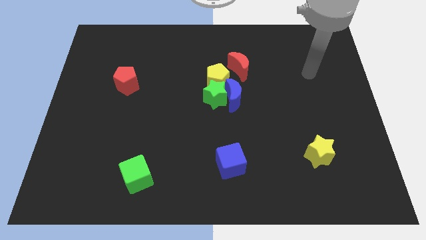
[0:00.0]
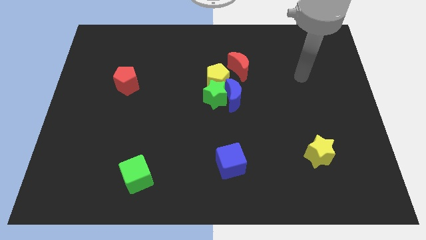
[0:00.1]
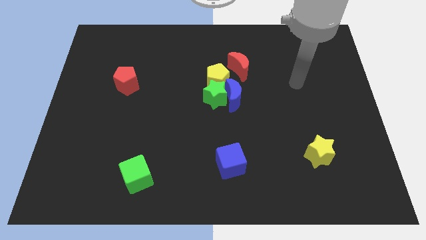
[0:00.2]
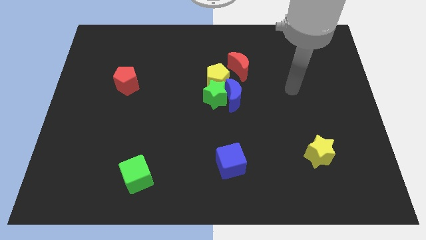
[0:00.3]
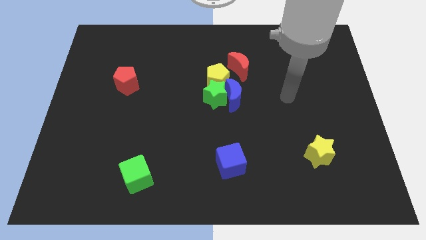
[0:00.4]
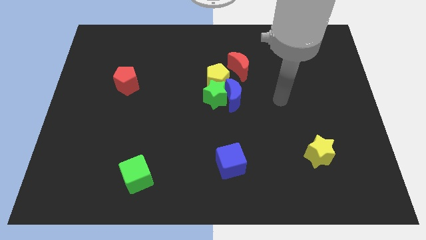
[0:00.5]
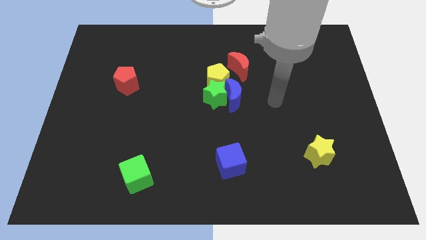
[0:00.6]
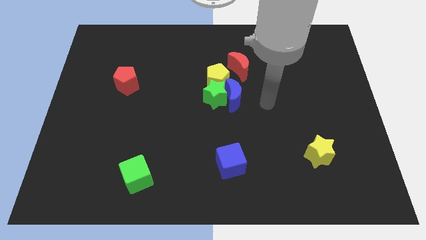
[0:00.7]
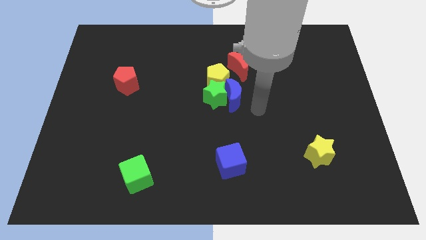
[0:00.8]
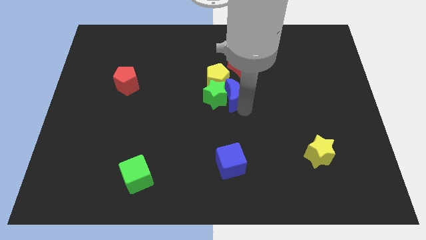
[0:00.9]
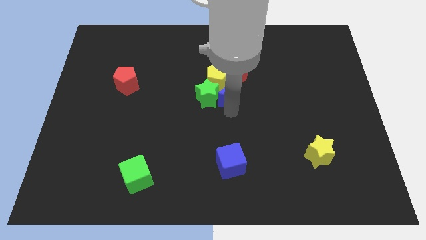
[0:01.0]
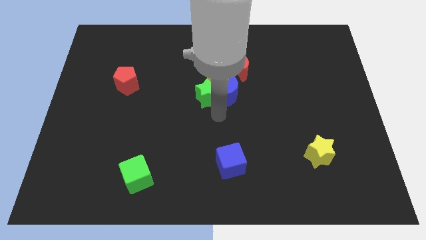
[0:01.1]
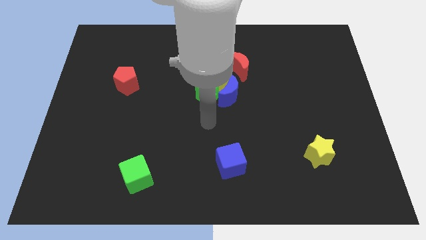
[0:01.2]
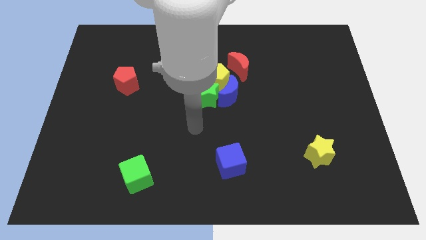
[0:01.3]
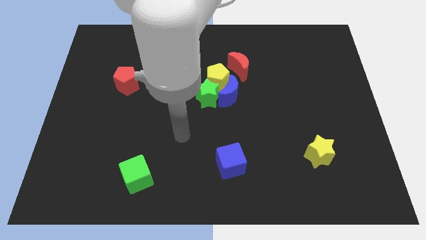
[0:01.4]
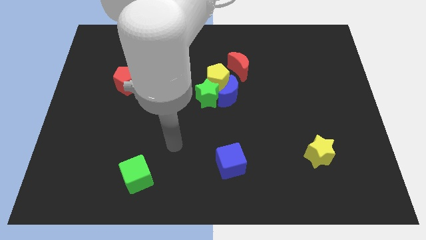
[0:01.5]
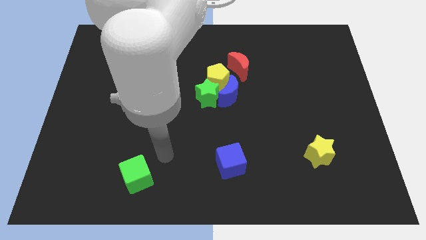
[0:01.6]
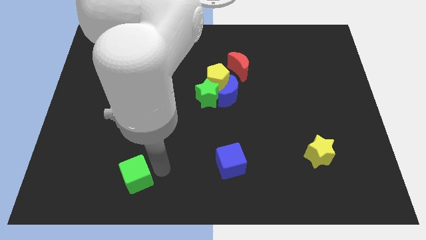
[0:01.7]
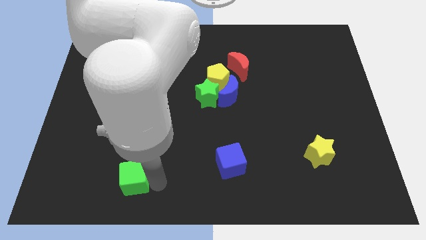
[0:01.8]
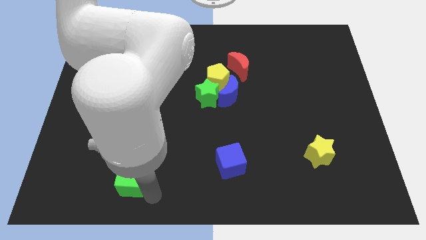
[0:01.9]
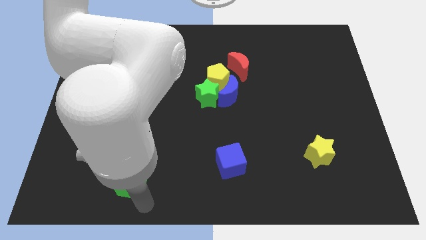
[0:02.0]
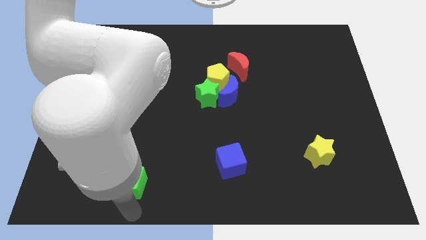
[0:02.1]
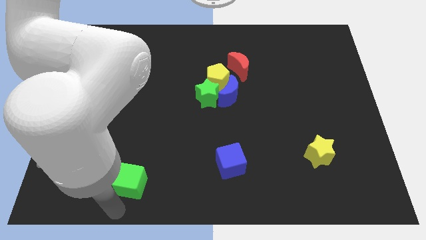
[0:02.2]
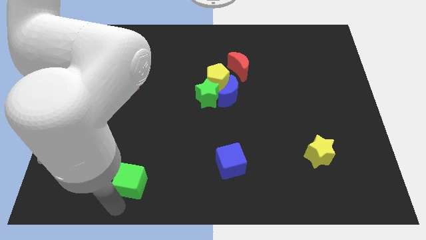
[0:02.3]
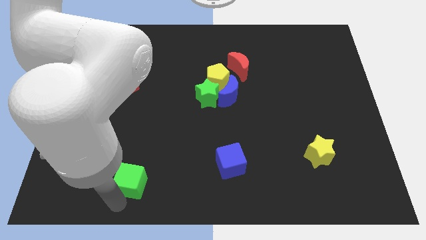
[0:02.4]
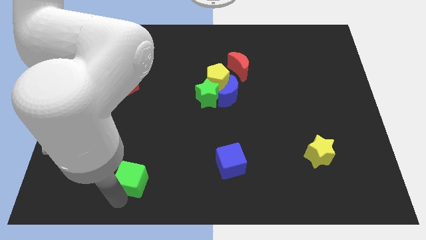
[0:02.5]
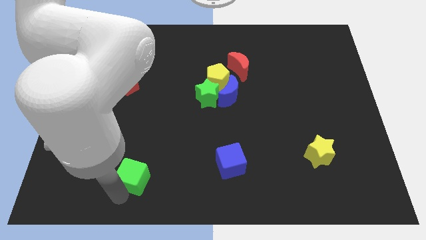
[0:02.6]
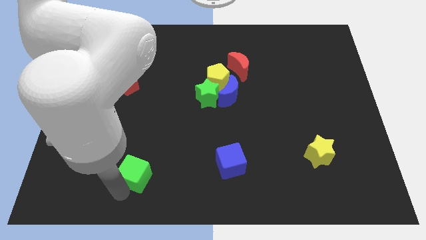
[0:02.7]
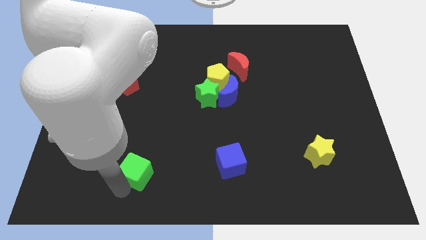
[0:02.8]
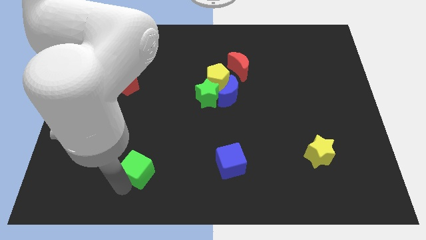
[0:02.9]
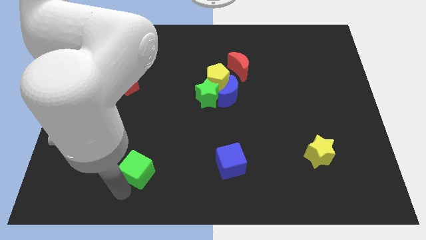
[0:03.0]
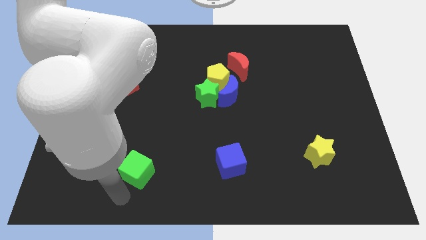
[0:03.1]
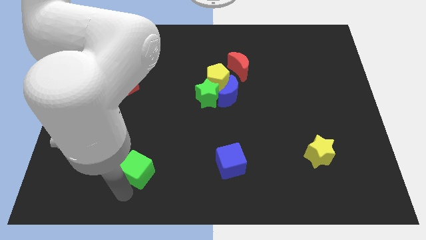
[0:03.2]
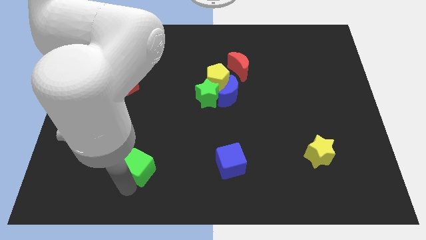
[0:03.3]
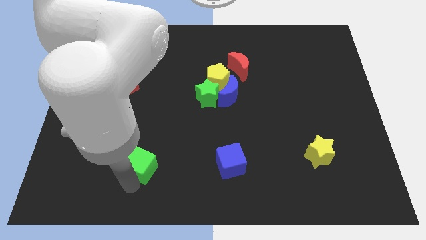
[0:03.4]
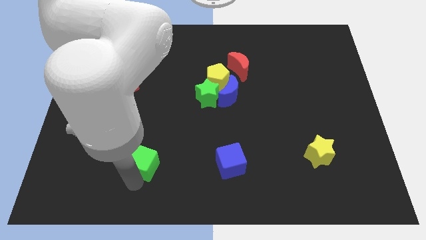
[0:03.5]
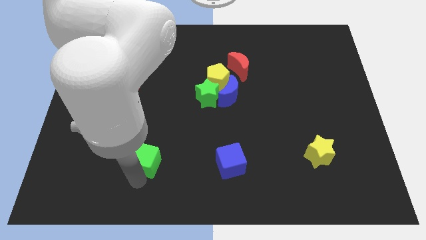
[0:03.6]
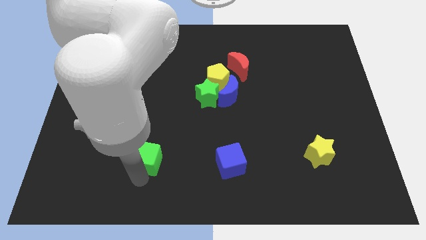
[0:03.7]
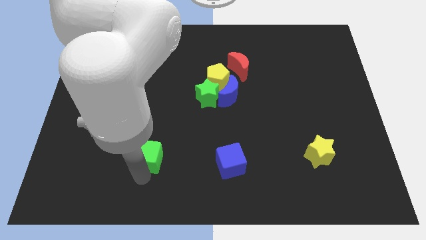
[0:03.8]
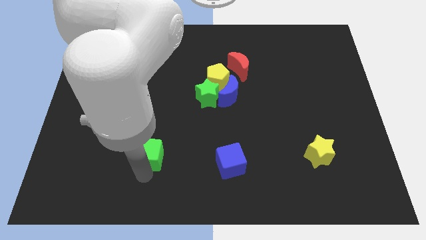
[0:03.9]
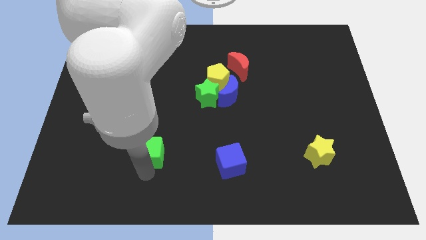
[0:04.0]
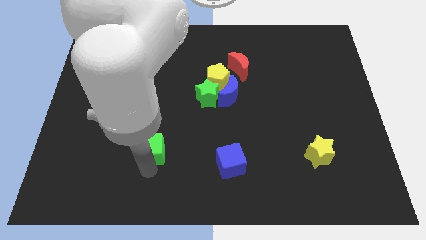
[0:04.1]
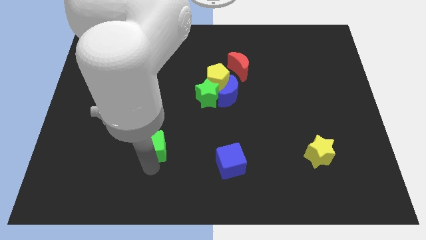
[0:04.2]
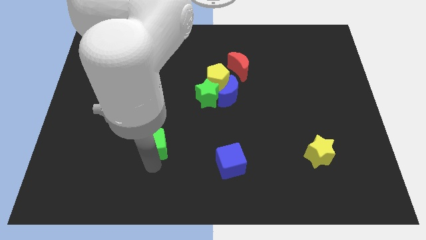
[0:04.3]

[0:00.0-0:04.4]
slightly move the green cube up

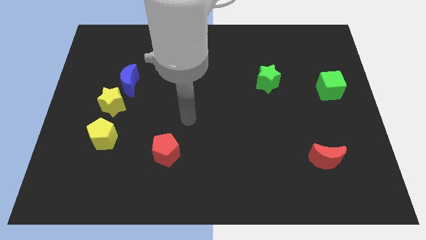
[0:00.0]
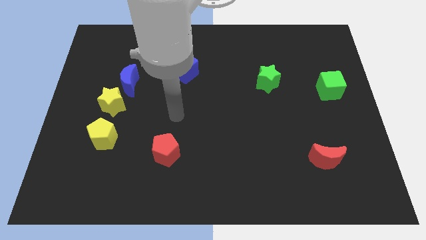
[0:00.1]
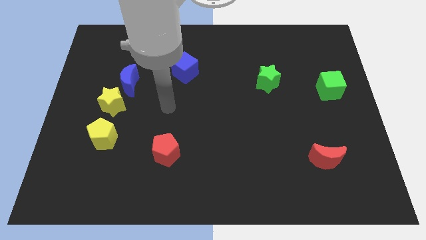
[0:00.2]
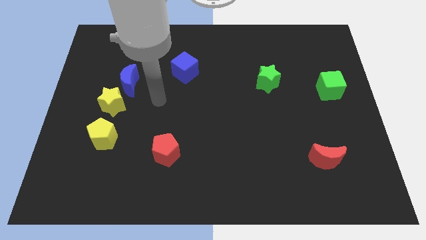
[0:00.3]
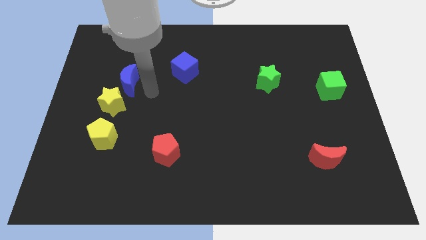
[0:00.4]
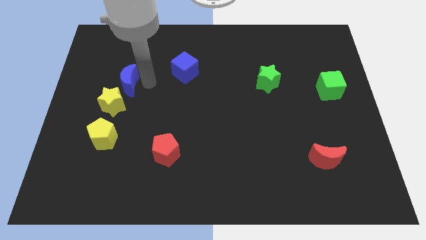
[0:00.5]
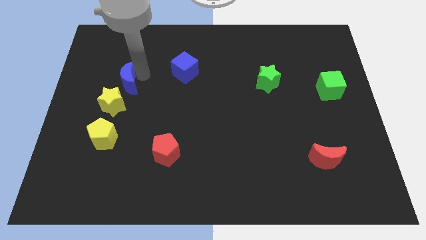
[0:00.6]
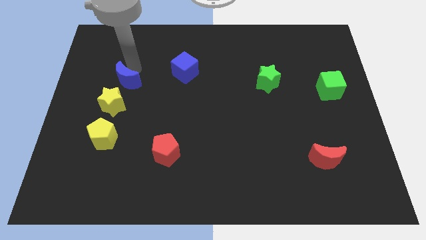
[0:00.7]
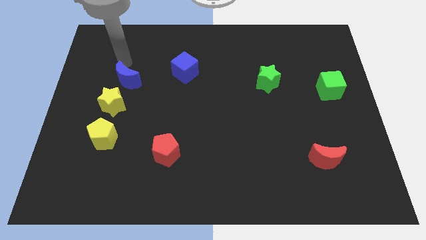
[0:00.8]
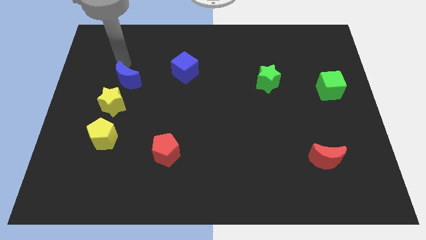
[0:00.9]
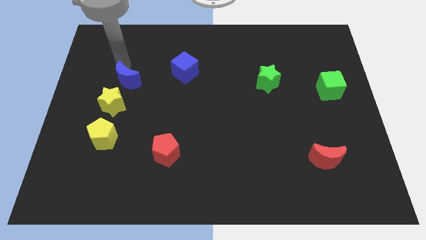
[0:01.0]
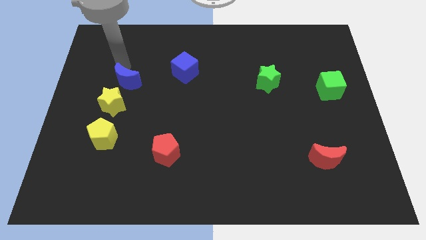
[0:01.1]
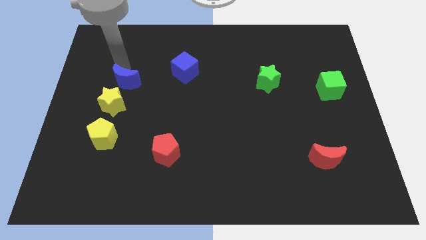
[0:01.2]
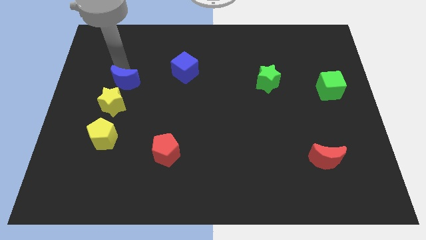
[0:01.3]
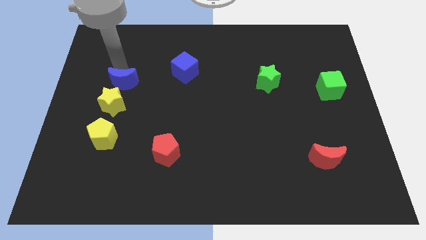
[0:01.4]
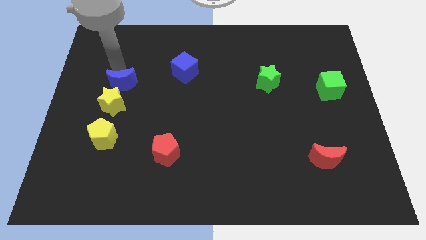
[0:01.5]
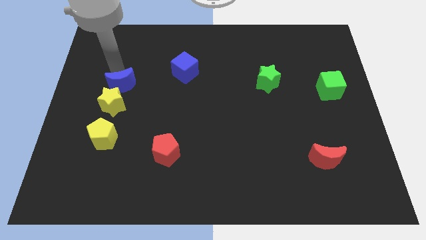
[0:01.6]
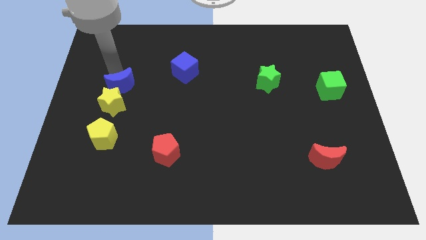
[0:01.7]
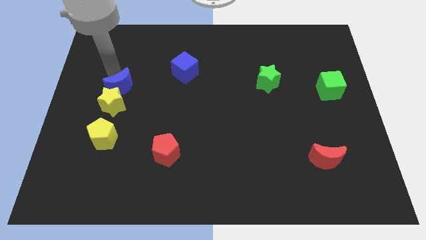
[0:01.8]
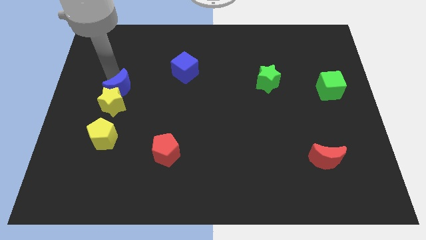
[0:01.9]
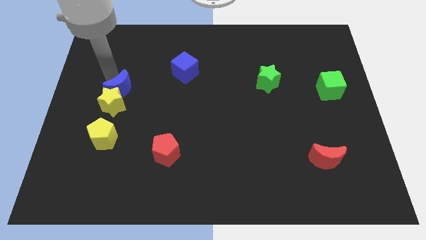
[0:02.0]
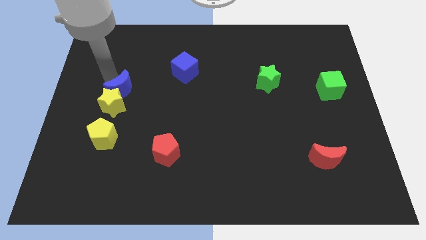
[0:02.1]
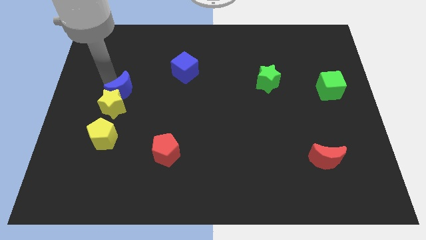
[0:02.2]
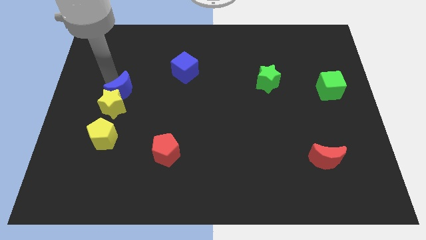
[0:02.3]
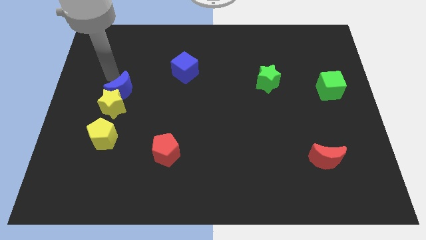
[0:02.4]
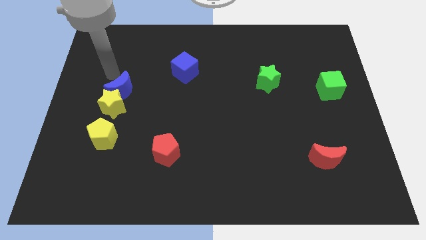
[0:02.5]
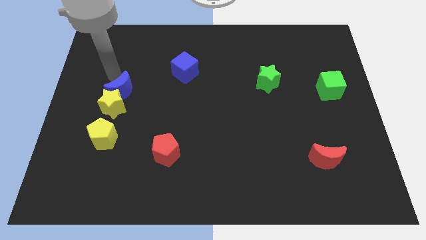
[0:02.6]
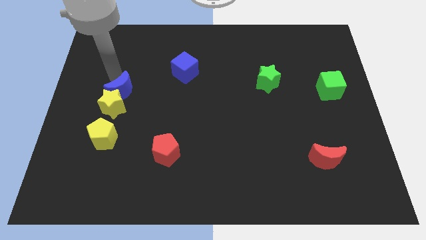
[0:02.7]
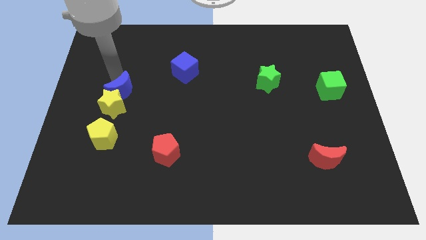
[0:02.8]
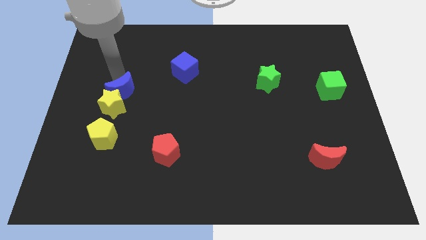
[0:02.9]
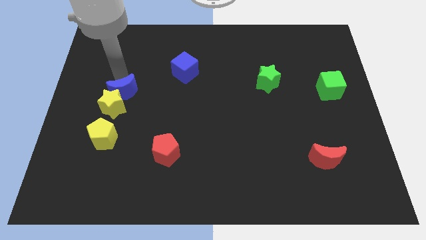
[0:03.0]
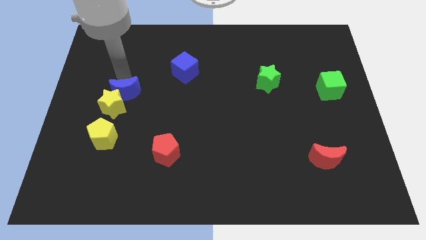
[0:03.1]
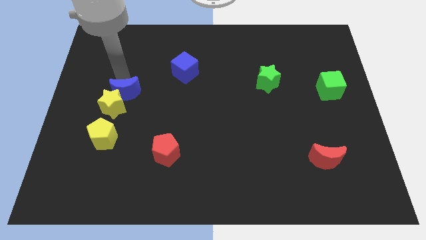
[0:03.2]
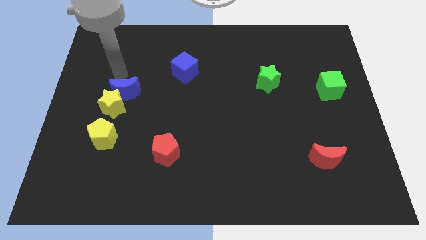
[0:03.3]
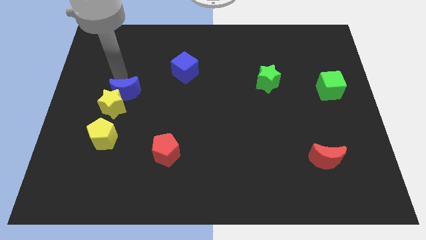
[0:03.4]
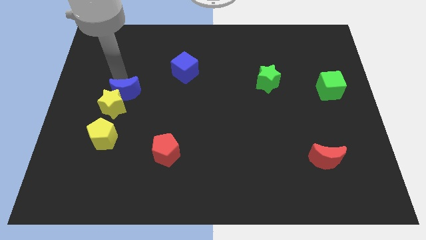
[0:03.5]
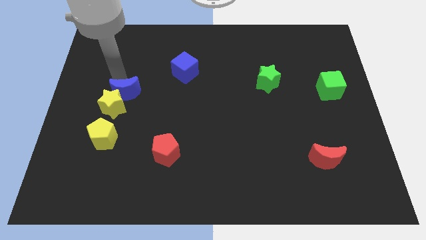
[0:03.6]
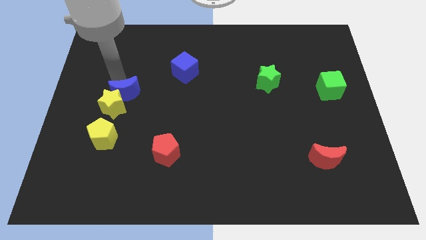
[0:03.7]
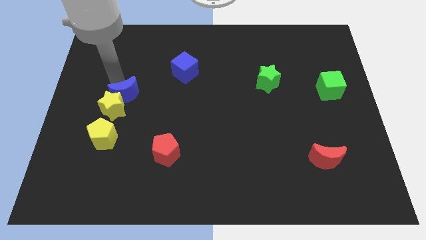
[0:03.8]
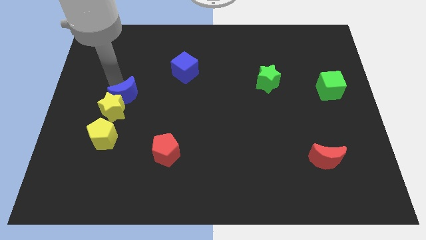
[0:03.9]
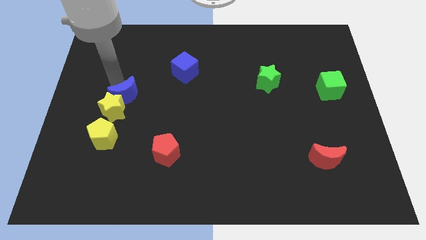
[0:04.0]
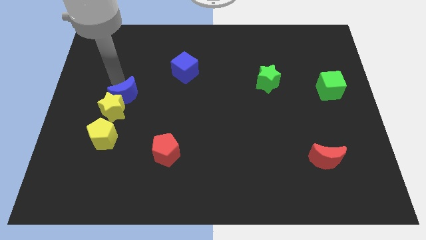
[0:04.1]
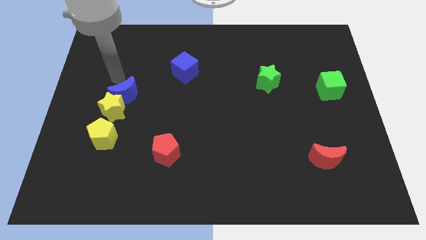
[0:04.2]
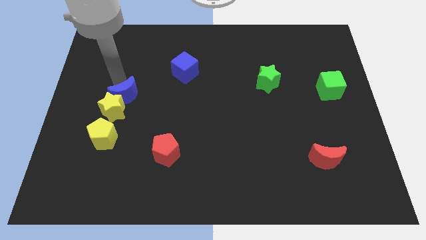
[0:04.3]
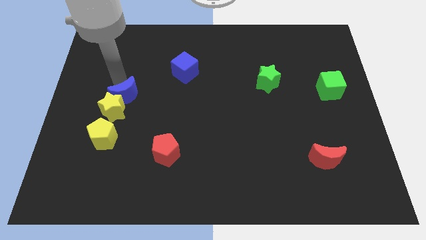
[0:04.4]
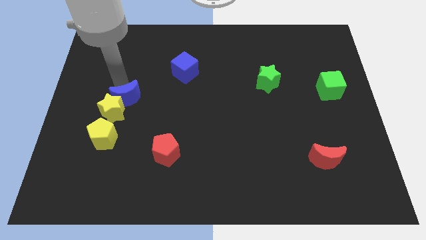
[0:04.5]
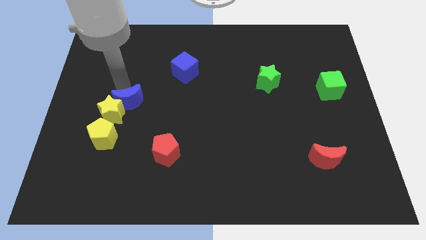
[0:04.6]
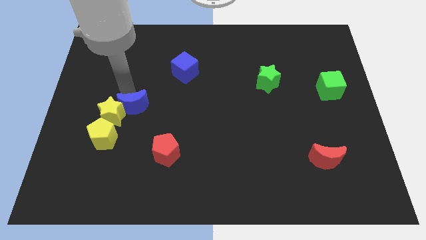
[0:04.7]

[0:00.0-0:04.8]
push the blue moon down a little
